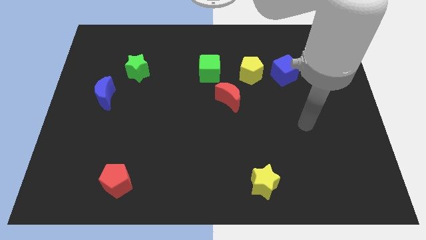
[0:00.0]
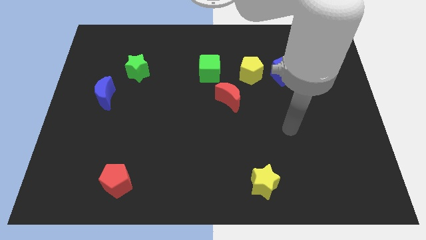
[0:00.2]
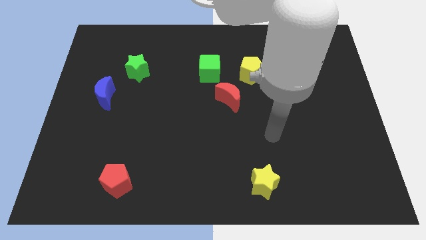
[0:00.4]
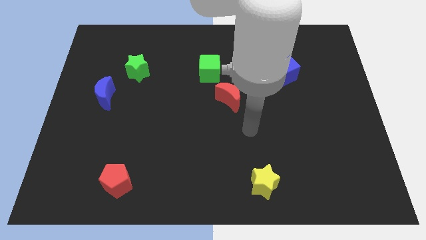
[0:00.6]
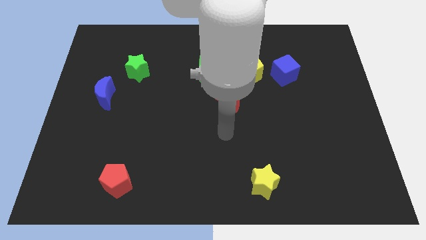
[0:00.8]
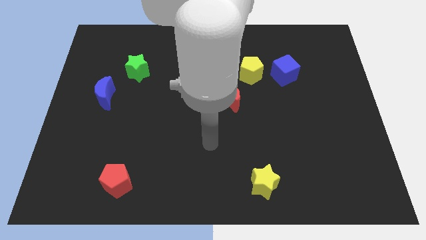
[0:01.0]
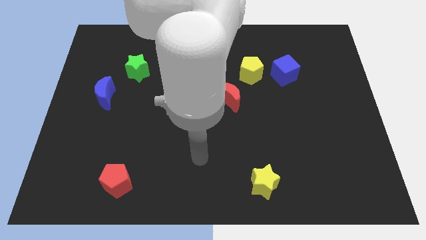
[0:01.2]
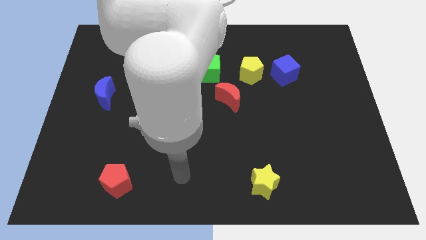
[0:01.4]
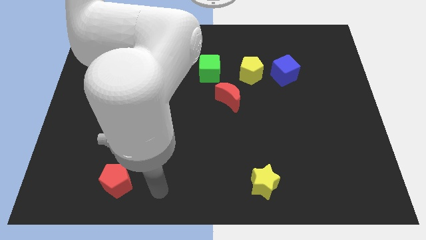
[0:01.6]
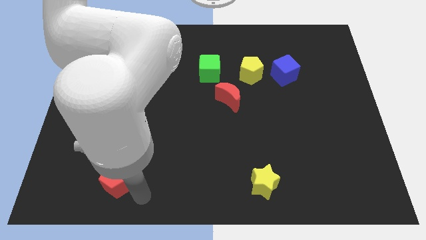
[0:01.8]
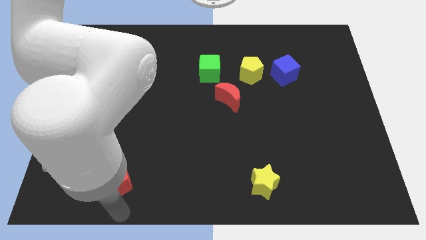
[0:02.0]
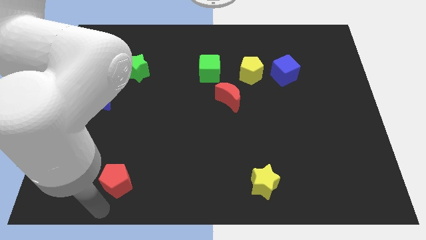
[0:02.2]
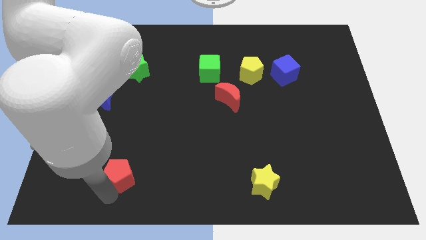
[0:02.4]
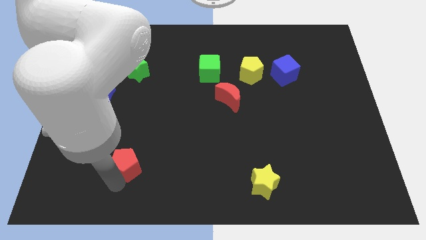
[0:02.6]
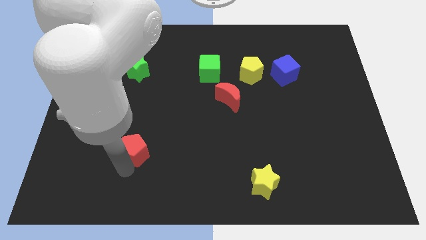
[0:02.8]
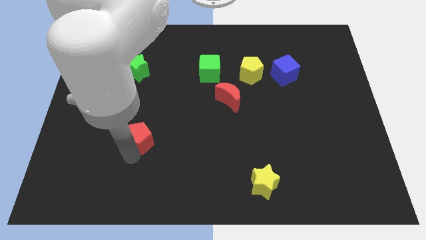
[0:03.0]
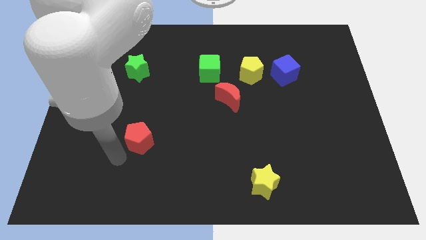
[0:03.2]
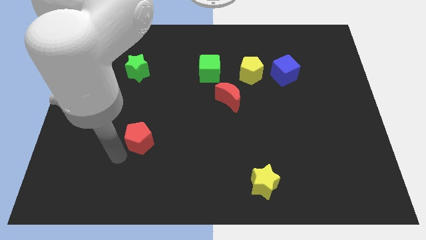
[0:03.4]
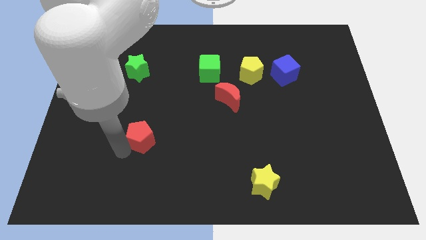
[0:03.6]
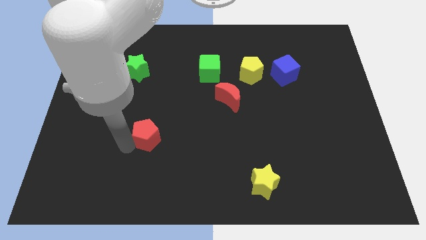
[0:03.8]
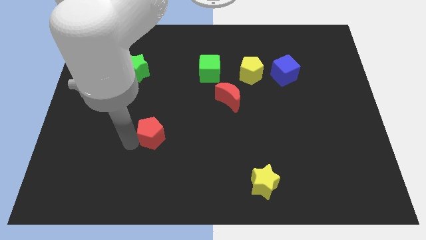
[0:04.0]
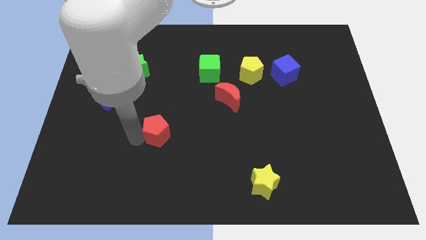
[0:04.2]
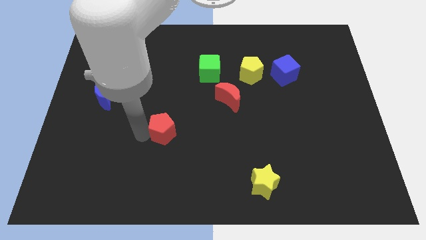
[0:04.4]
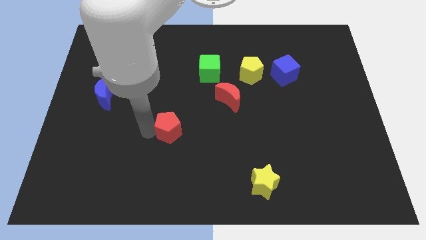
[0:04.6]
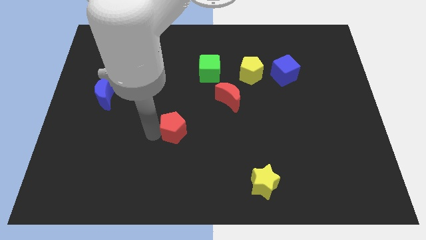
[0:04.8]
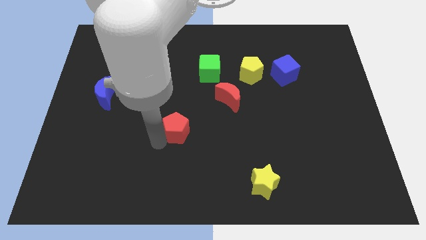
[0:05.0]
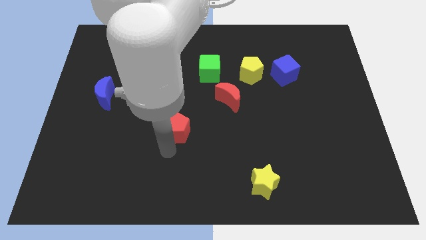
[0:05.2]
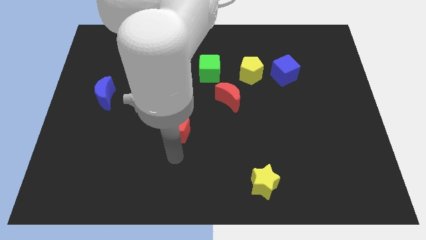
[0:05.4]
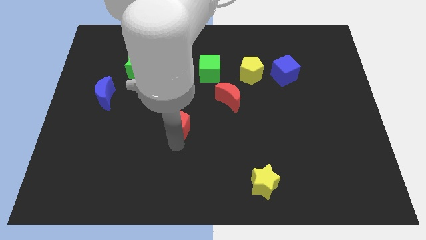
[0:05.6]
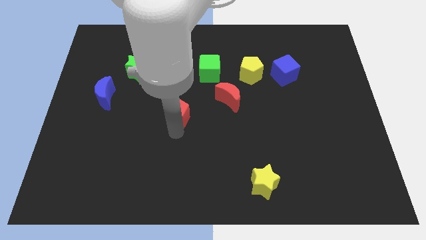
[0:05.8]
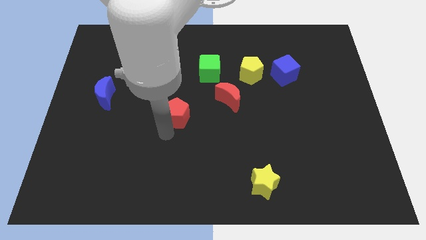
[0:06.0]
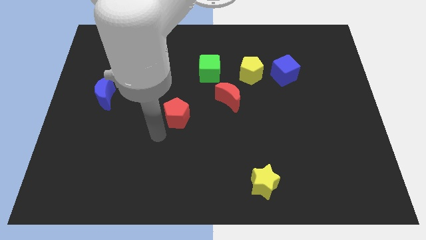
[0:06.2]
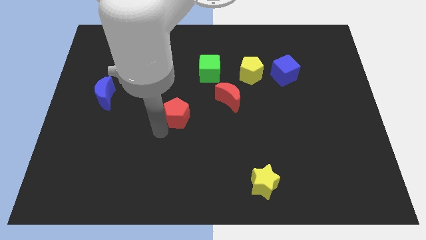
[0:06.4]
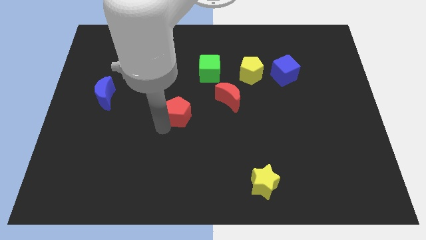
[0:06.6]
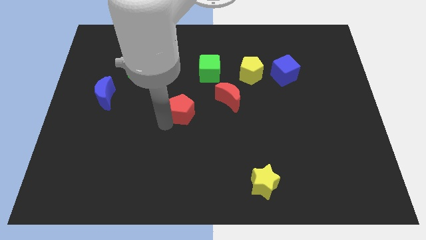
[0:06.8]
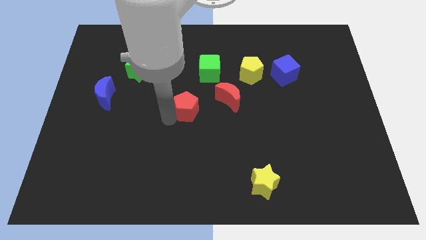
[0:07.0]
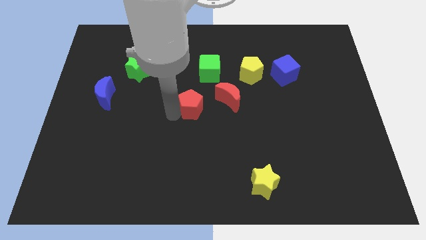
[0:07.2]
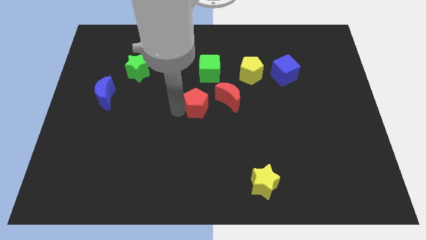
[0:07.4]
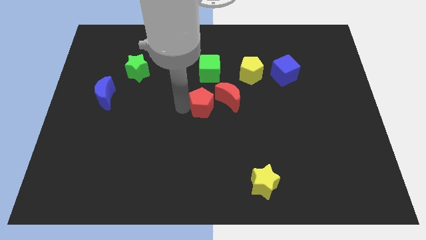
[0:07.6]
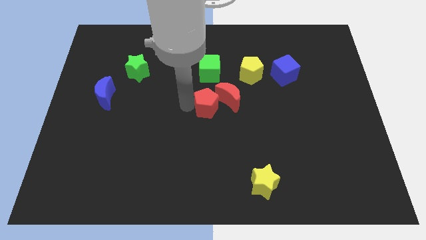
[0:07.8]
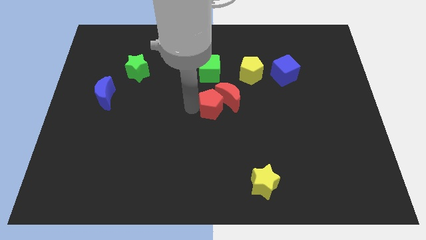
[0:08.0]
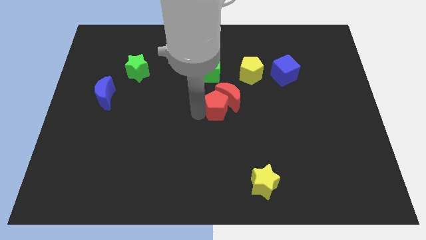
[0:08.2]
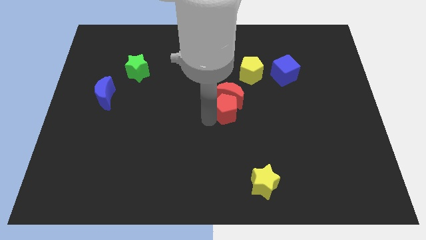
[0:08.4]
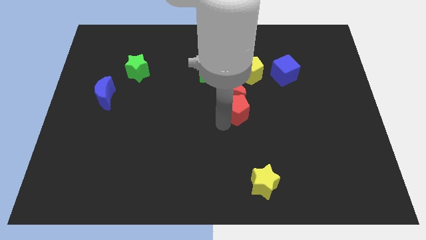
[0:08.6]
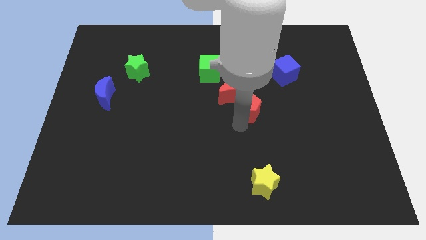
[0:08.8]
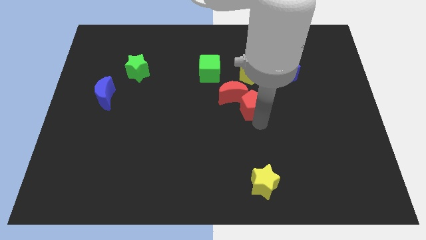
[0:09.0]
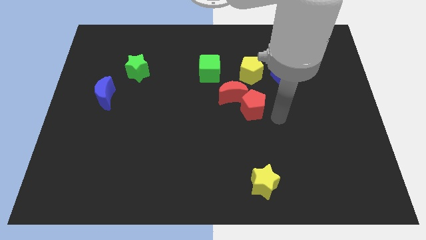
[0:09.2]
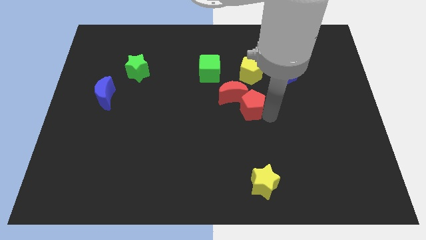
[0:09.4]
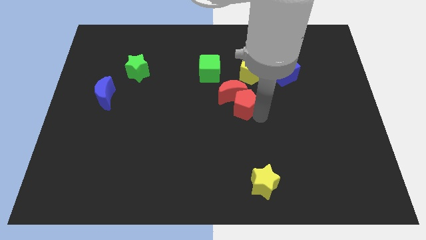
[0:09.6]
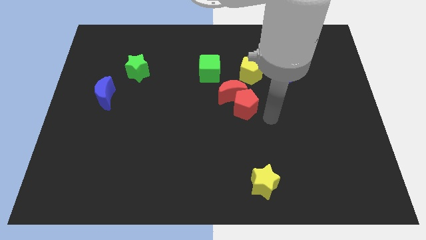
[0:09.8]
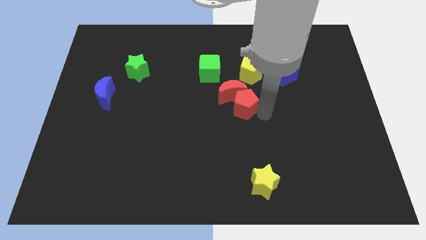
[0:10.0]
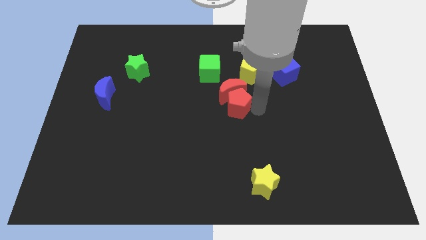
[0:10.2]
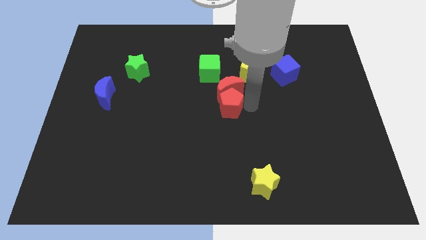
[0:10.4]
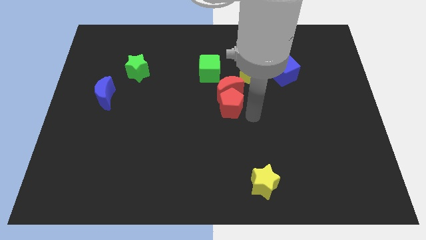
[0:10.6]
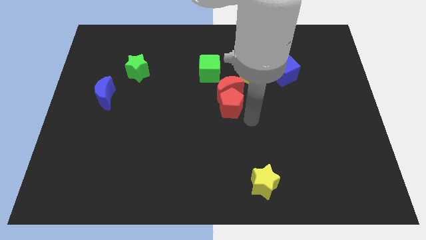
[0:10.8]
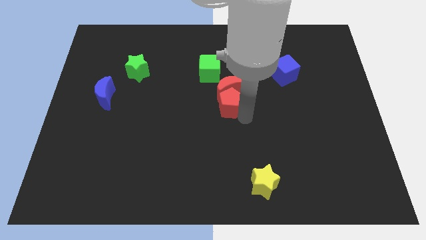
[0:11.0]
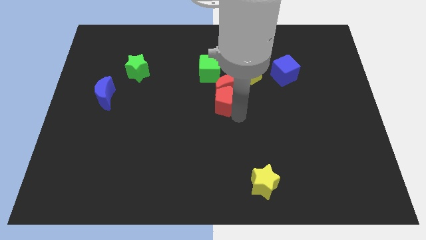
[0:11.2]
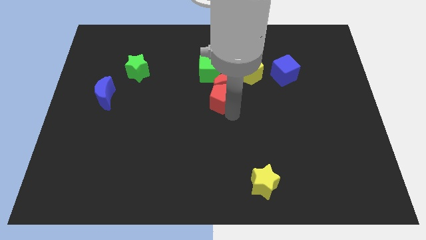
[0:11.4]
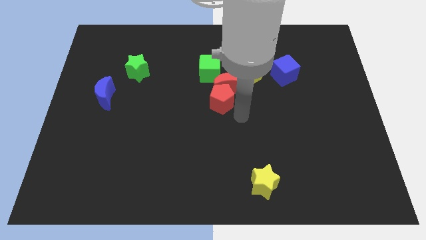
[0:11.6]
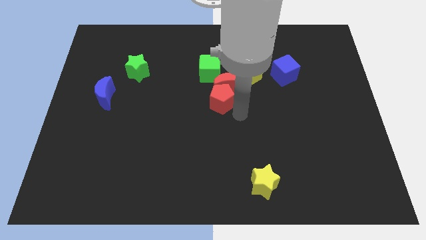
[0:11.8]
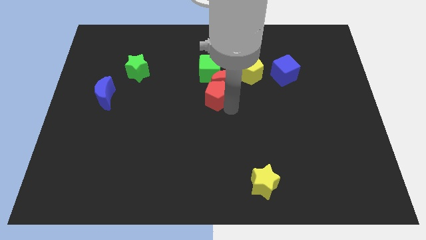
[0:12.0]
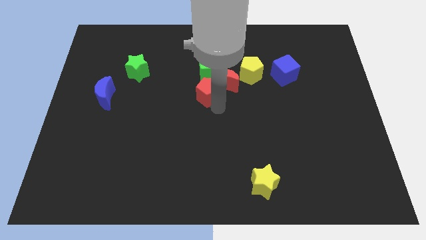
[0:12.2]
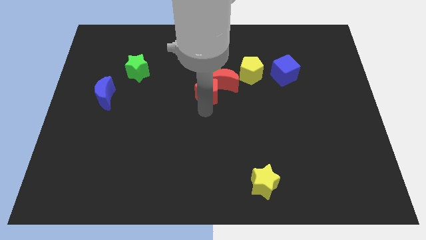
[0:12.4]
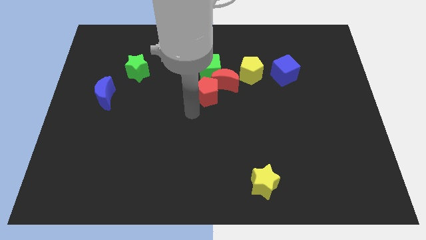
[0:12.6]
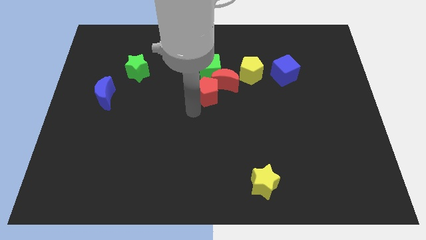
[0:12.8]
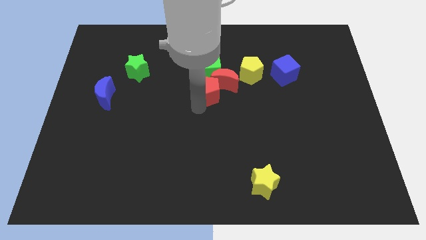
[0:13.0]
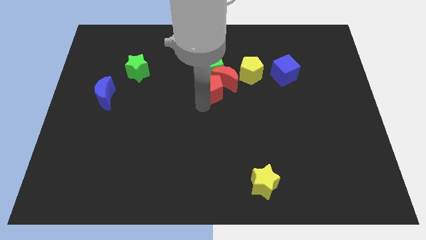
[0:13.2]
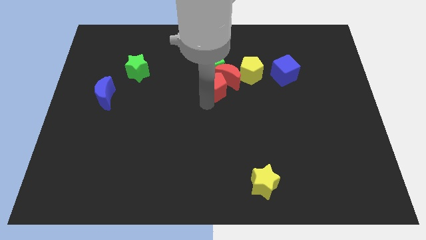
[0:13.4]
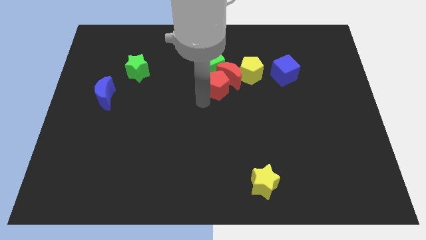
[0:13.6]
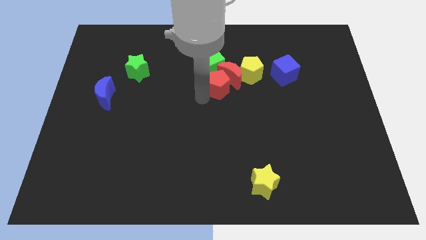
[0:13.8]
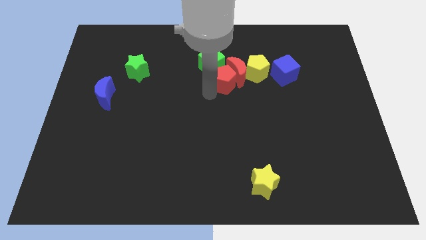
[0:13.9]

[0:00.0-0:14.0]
move the red pentagon to the left side of the blue cube
